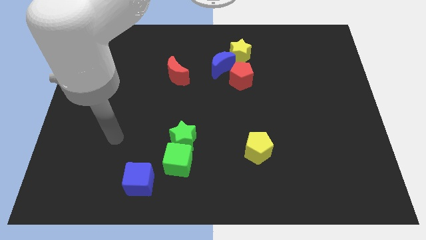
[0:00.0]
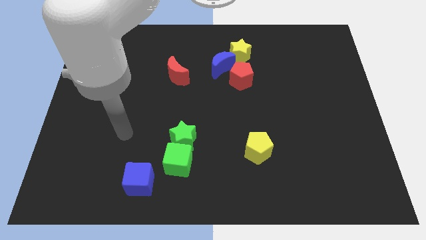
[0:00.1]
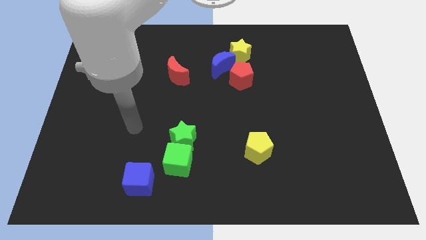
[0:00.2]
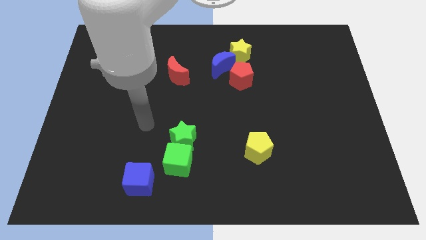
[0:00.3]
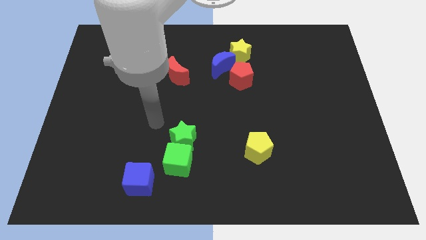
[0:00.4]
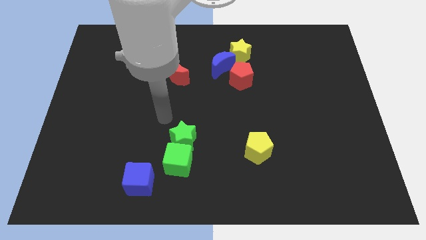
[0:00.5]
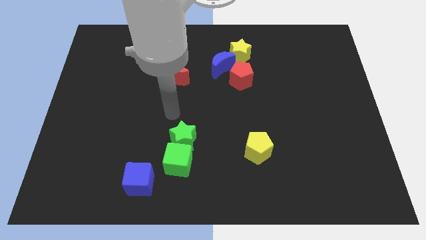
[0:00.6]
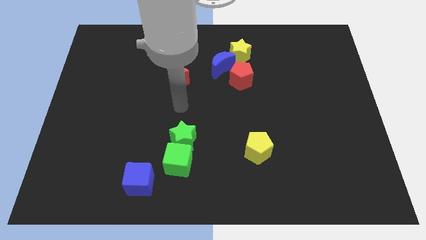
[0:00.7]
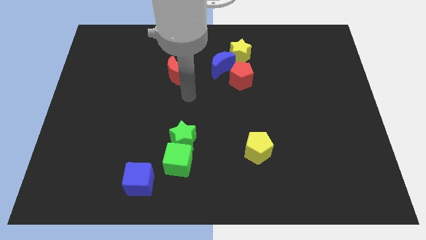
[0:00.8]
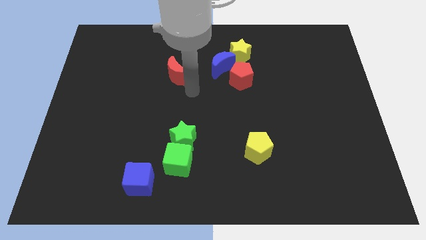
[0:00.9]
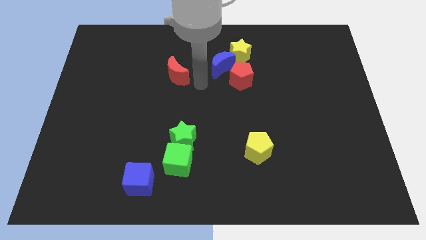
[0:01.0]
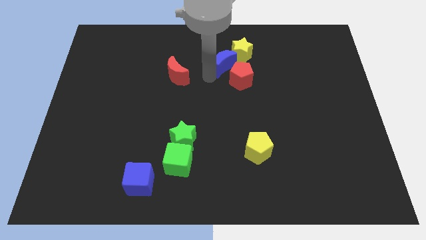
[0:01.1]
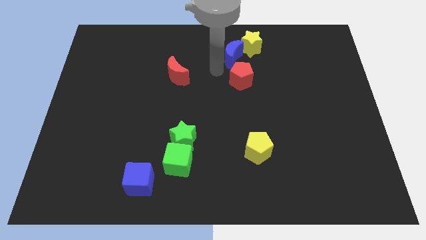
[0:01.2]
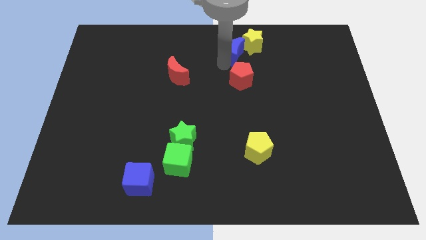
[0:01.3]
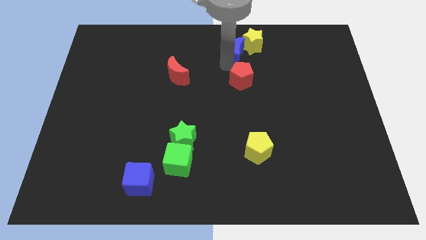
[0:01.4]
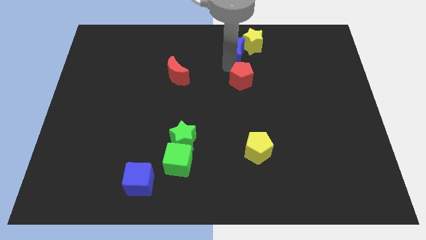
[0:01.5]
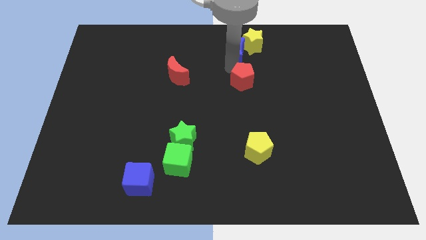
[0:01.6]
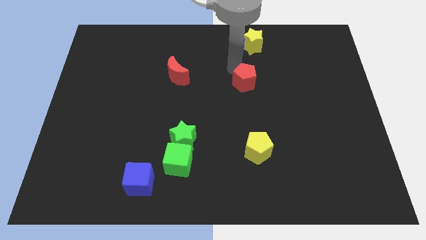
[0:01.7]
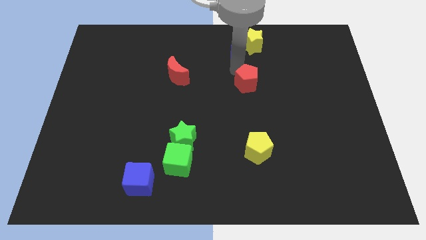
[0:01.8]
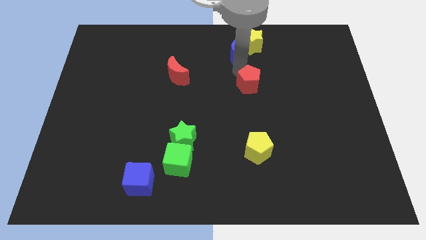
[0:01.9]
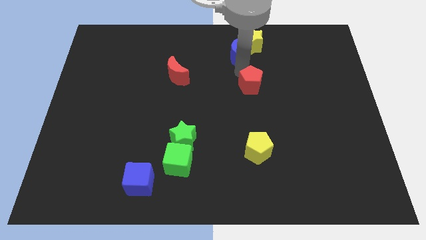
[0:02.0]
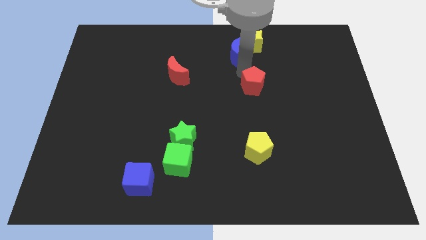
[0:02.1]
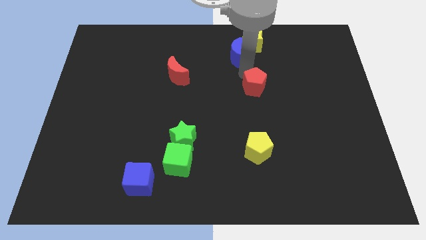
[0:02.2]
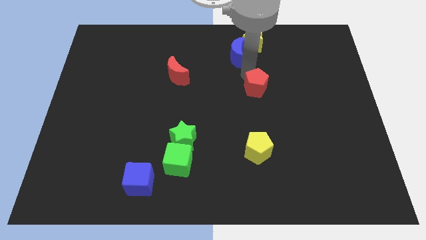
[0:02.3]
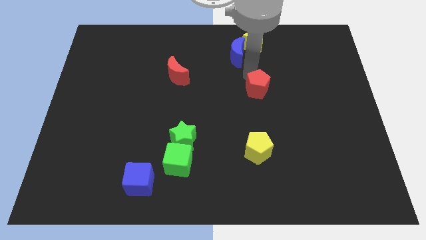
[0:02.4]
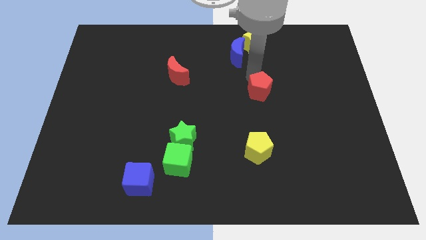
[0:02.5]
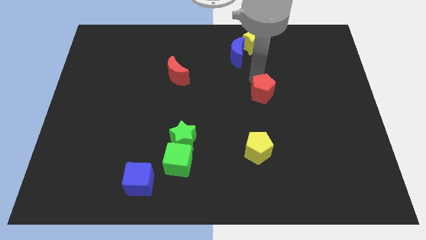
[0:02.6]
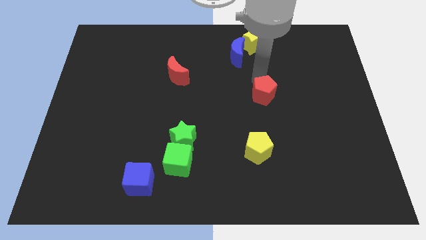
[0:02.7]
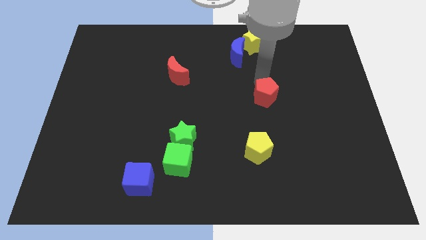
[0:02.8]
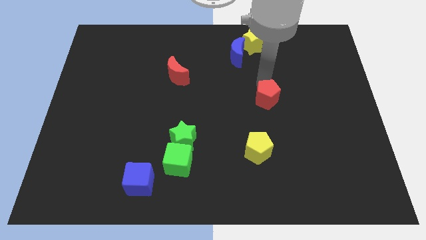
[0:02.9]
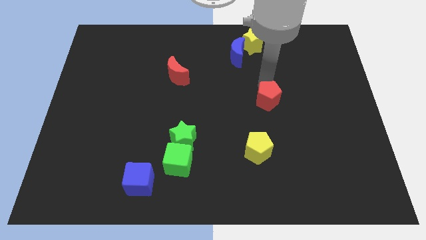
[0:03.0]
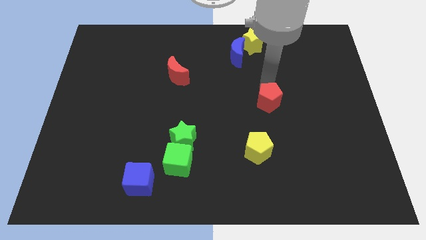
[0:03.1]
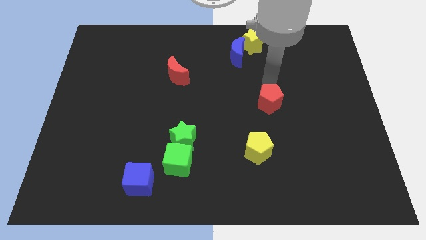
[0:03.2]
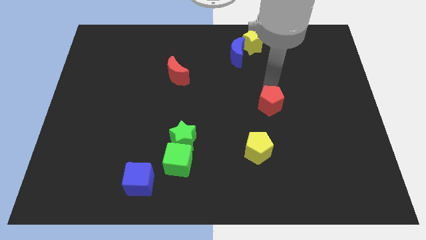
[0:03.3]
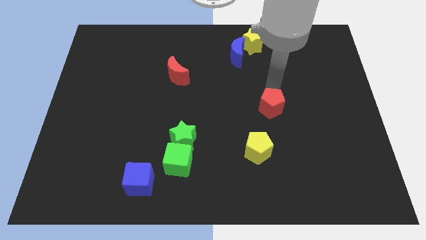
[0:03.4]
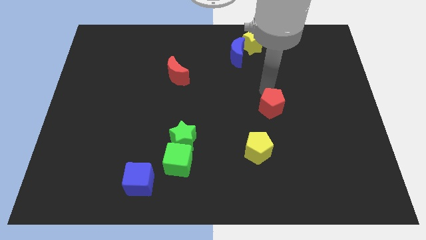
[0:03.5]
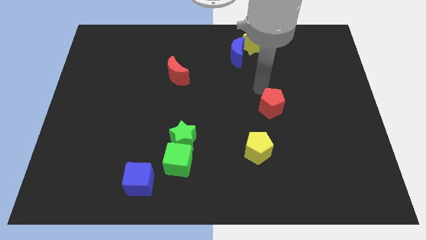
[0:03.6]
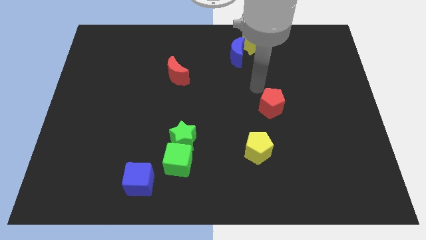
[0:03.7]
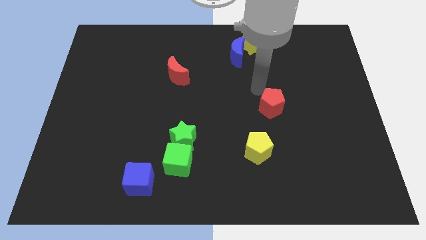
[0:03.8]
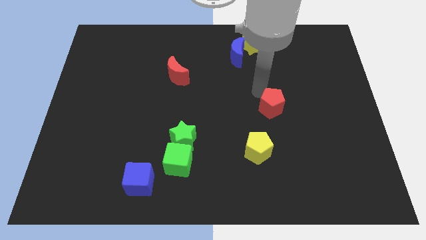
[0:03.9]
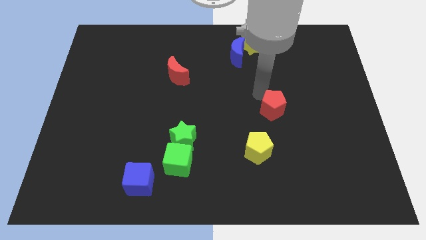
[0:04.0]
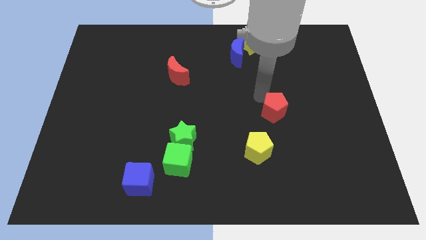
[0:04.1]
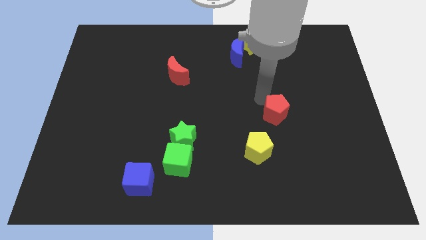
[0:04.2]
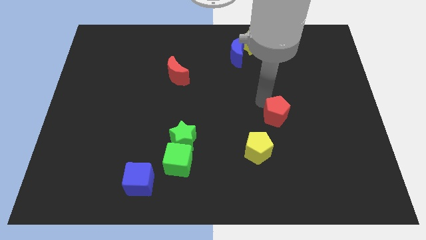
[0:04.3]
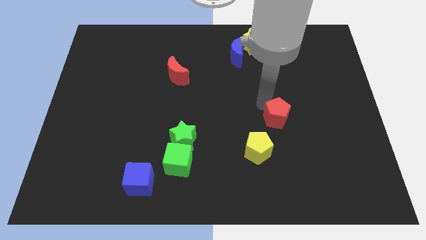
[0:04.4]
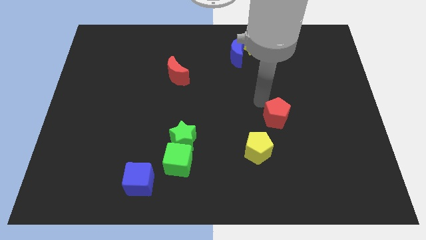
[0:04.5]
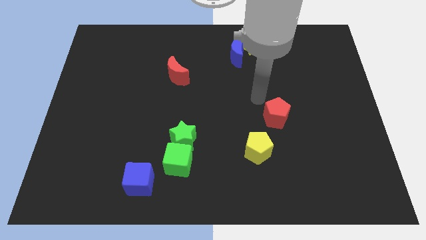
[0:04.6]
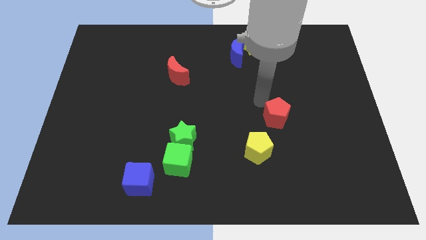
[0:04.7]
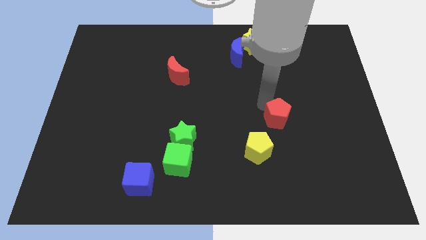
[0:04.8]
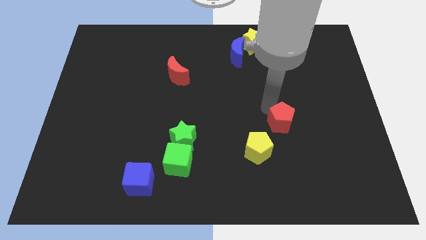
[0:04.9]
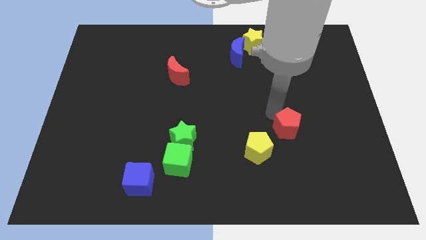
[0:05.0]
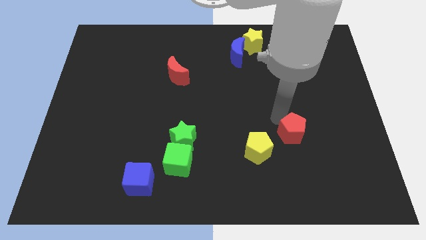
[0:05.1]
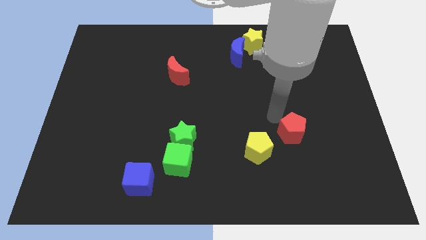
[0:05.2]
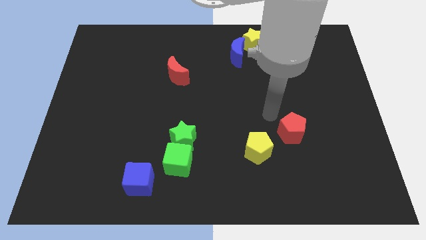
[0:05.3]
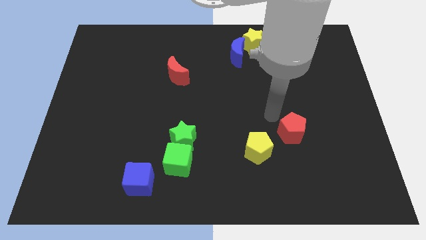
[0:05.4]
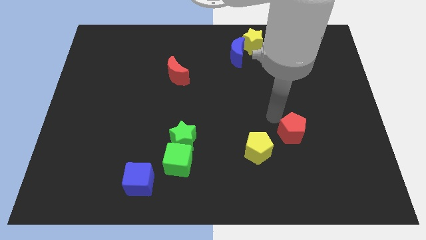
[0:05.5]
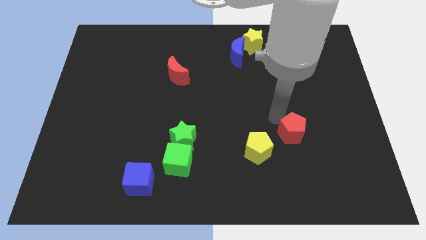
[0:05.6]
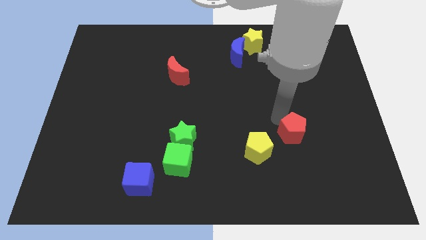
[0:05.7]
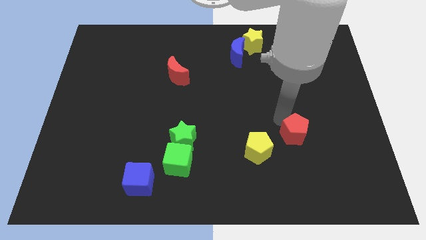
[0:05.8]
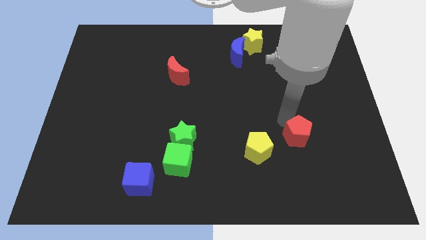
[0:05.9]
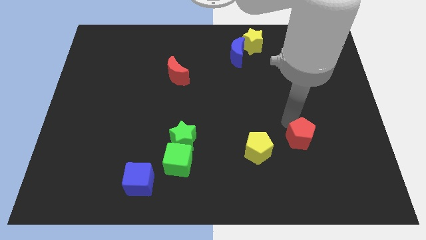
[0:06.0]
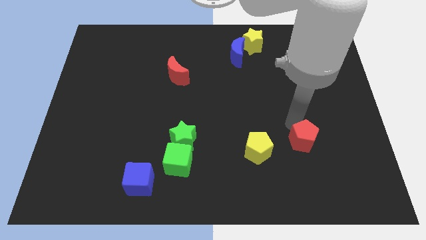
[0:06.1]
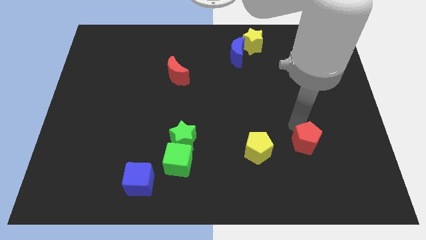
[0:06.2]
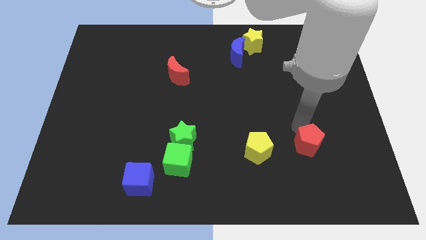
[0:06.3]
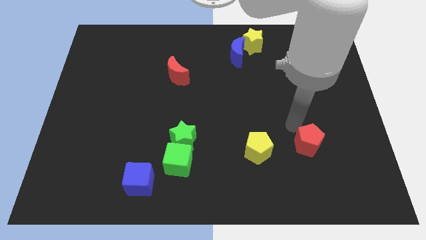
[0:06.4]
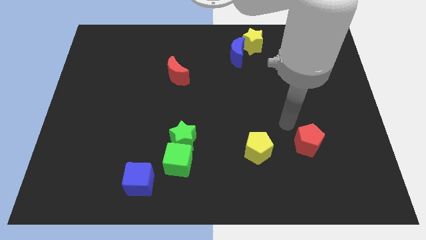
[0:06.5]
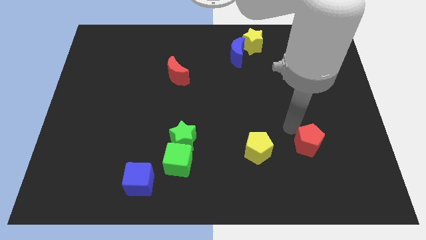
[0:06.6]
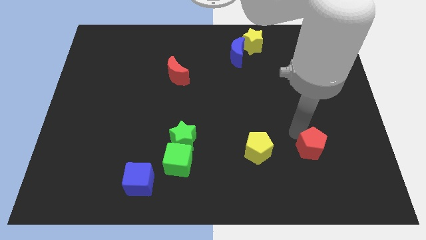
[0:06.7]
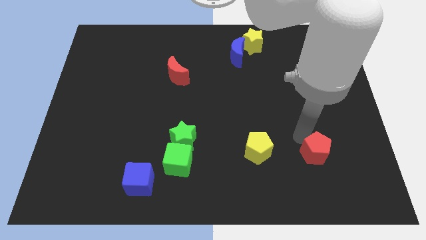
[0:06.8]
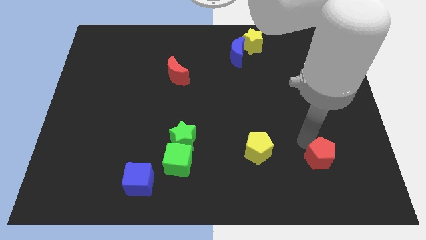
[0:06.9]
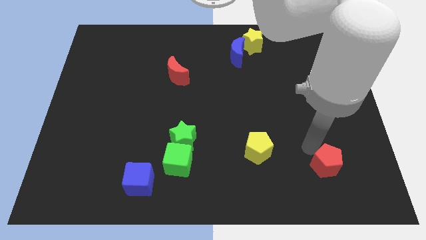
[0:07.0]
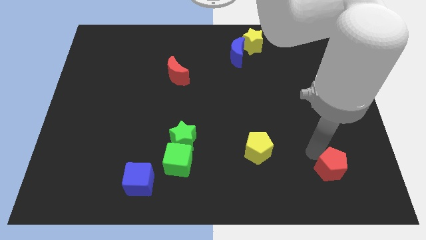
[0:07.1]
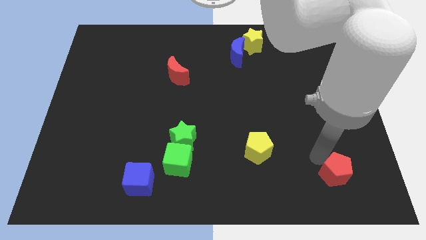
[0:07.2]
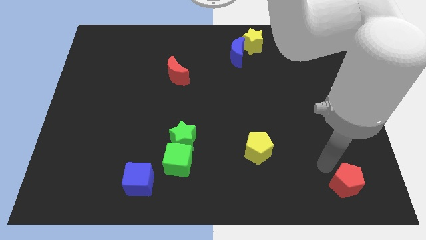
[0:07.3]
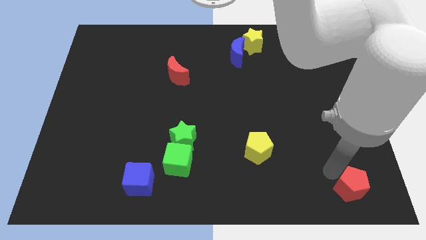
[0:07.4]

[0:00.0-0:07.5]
push the red pentagon to the lower right corner
